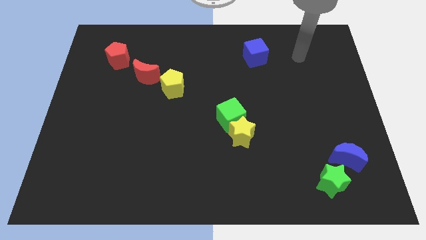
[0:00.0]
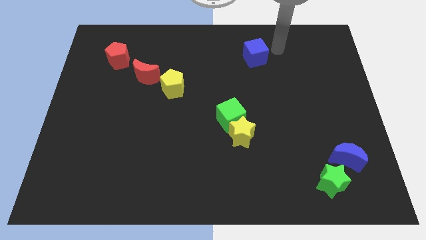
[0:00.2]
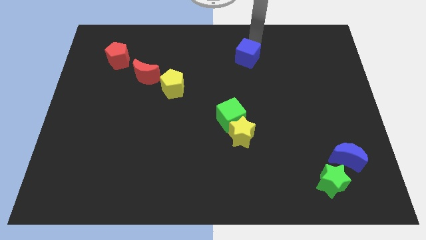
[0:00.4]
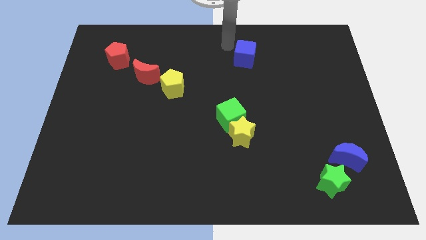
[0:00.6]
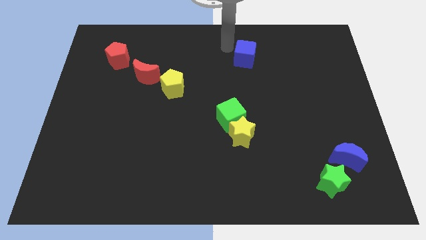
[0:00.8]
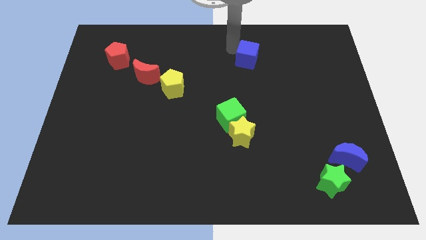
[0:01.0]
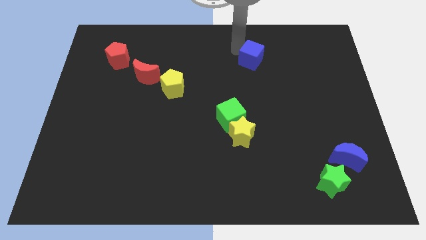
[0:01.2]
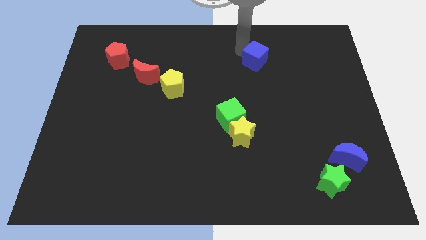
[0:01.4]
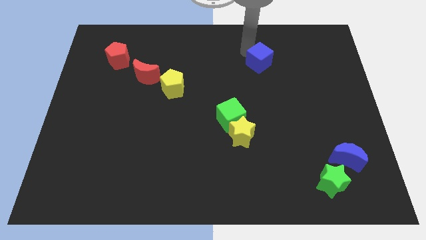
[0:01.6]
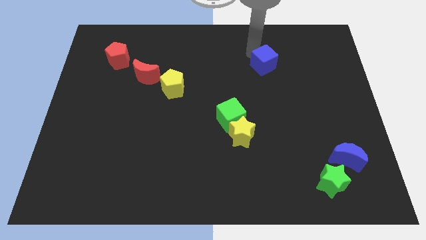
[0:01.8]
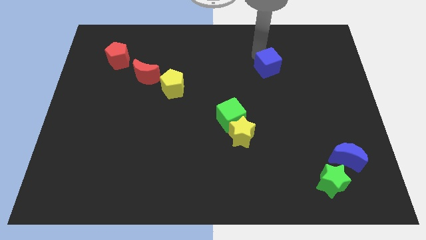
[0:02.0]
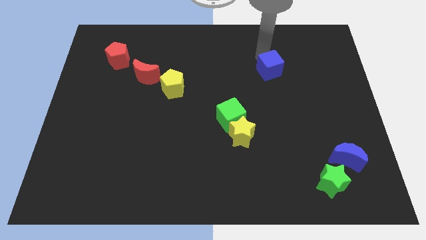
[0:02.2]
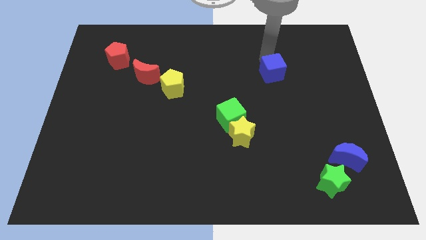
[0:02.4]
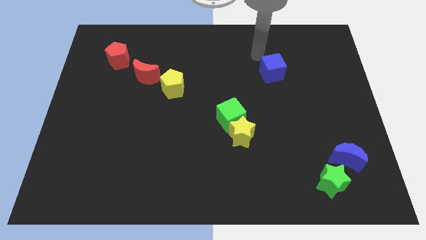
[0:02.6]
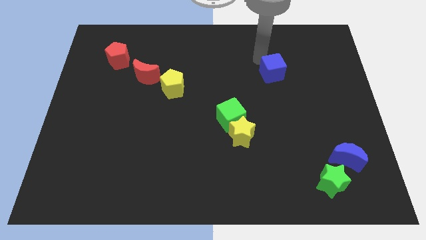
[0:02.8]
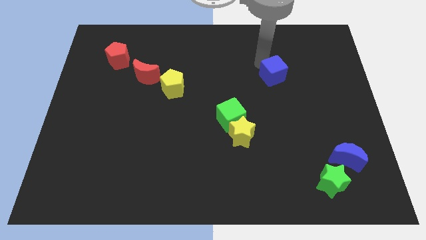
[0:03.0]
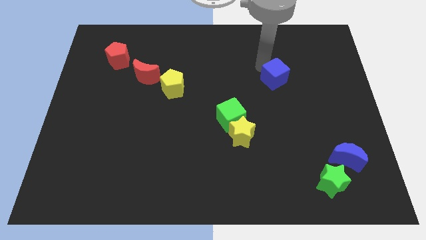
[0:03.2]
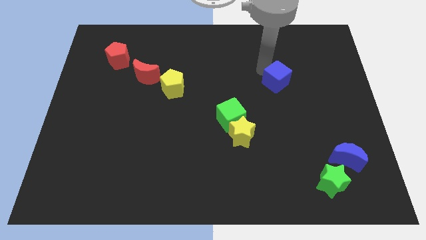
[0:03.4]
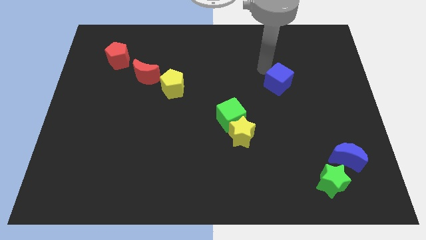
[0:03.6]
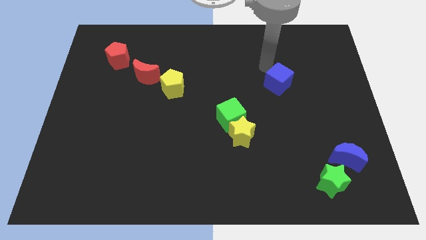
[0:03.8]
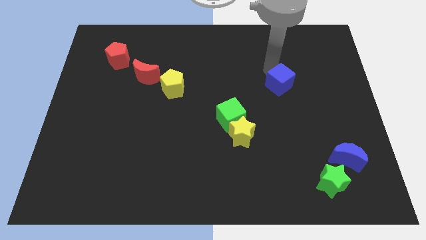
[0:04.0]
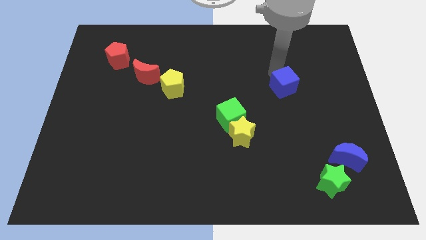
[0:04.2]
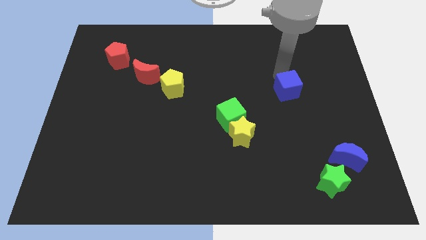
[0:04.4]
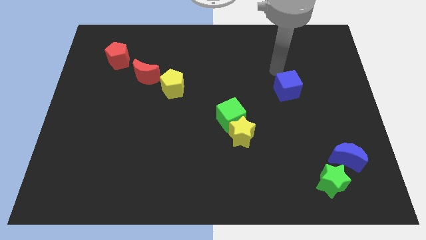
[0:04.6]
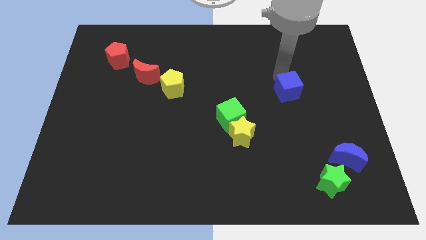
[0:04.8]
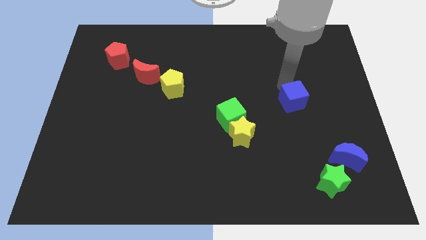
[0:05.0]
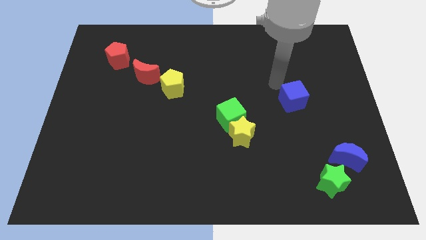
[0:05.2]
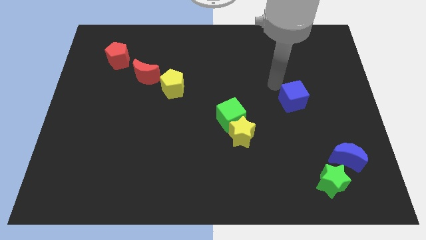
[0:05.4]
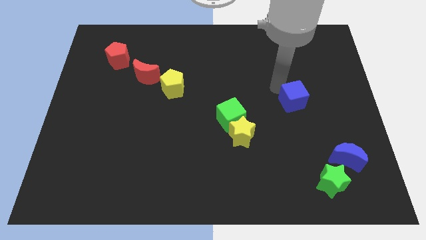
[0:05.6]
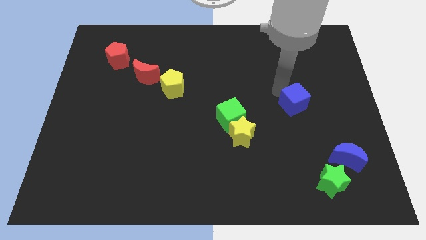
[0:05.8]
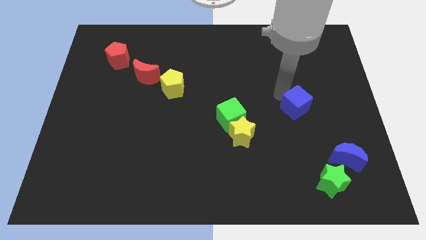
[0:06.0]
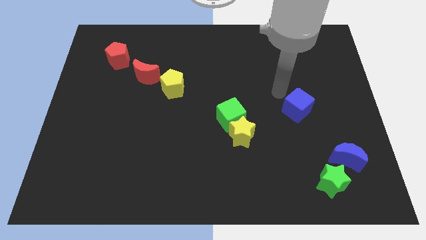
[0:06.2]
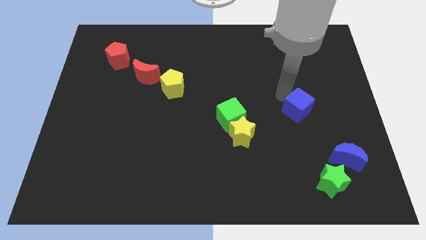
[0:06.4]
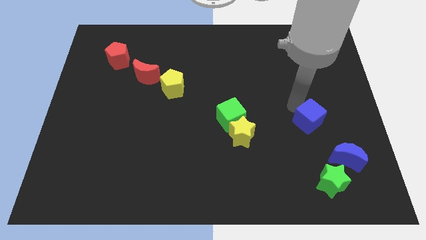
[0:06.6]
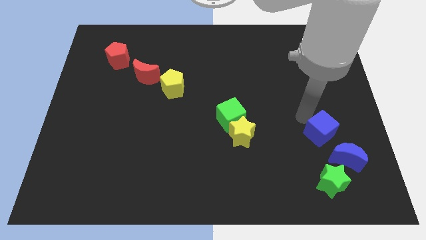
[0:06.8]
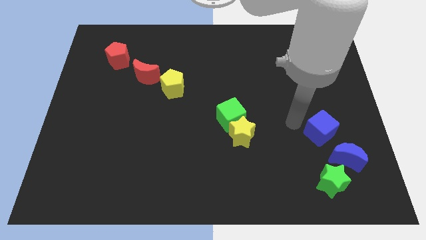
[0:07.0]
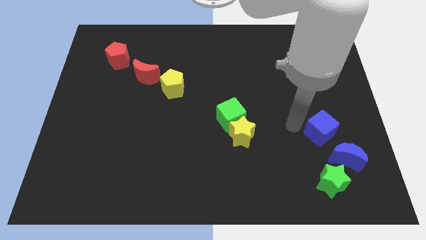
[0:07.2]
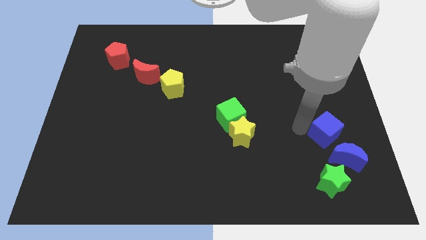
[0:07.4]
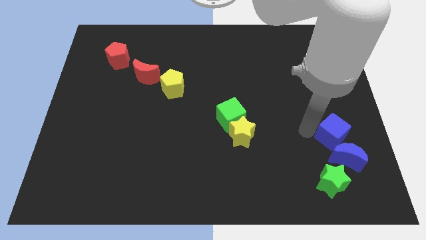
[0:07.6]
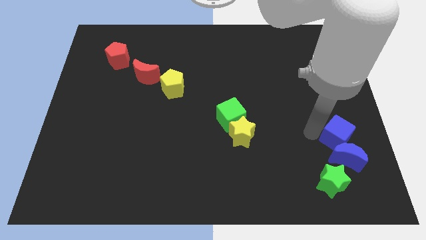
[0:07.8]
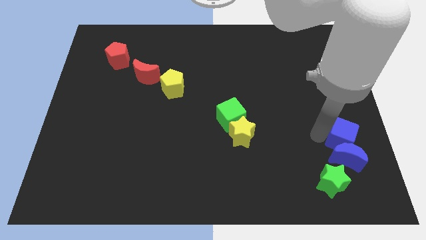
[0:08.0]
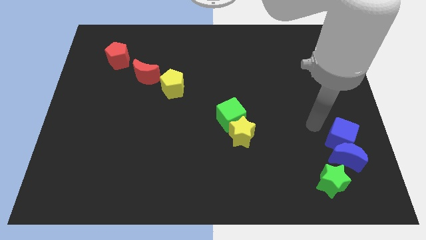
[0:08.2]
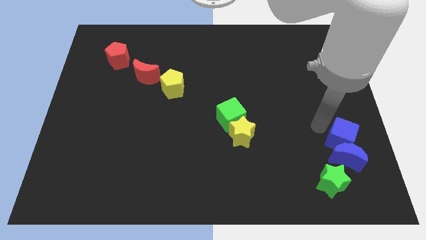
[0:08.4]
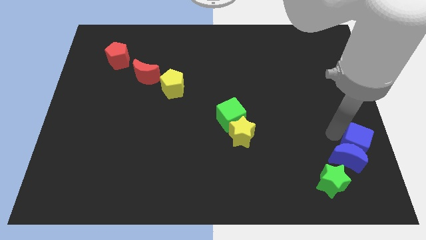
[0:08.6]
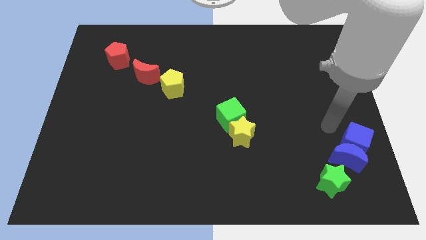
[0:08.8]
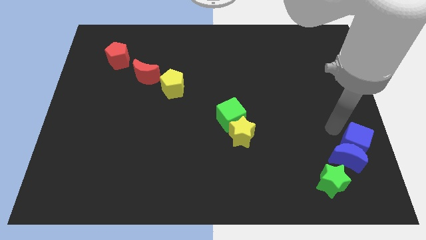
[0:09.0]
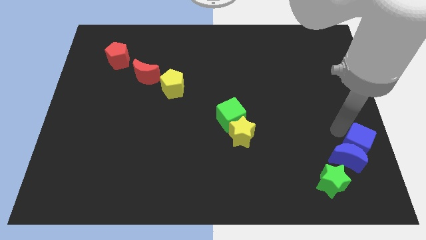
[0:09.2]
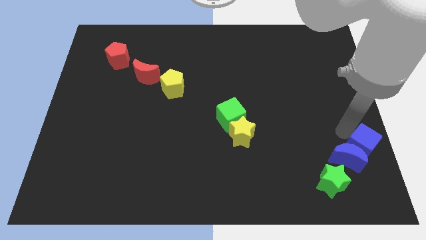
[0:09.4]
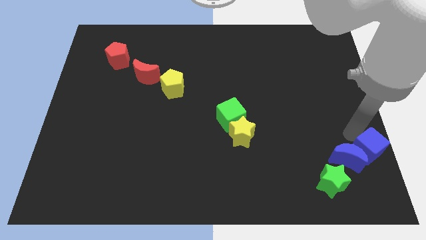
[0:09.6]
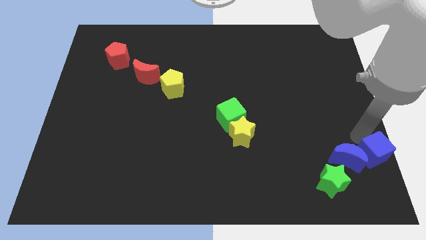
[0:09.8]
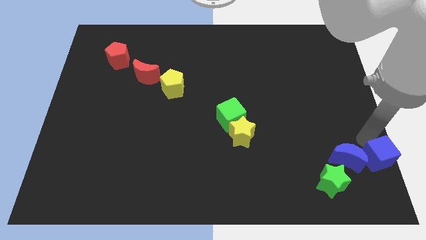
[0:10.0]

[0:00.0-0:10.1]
move the blue cube to the bottom right of the board
